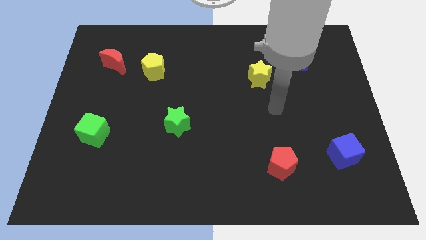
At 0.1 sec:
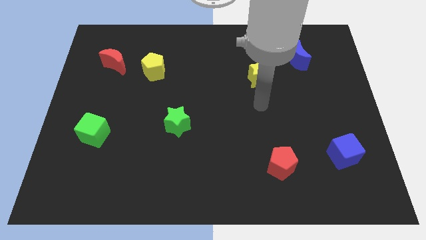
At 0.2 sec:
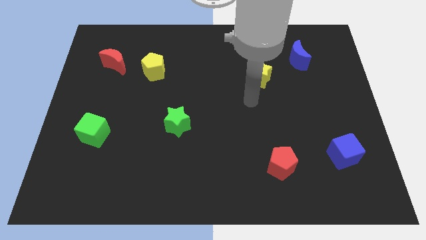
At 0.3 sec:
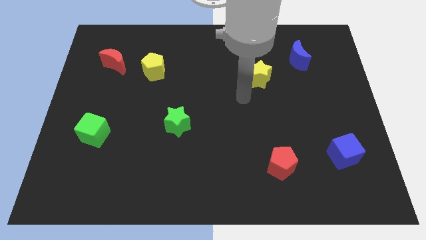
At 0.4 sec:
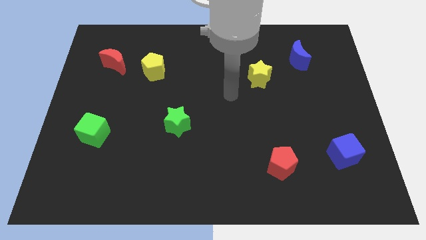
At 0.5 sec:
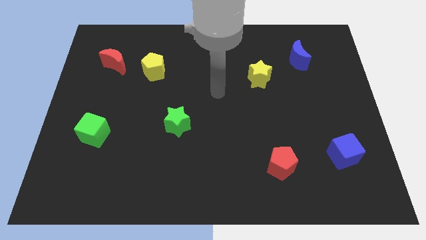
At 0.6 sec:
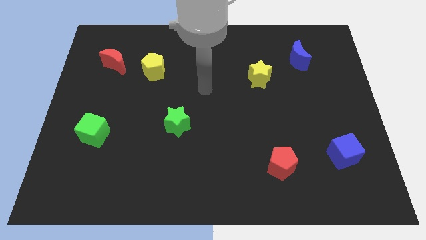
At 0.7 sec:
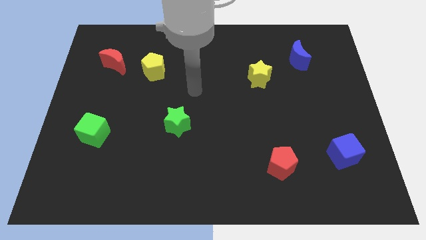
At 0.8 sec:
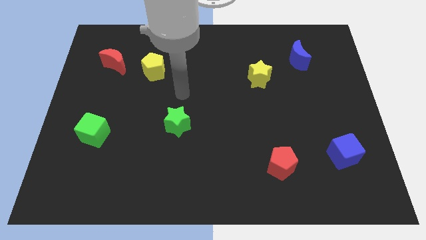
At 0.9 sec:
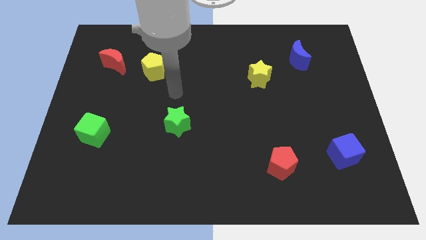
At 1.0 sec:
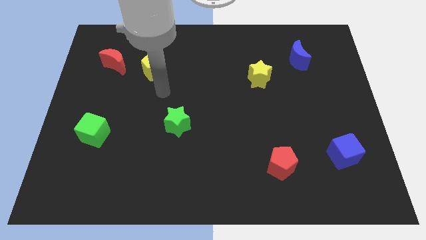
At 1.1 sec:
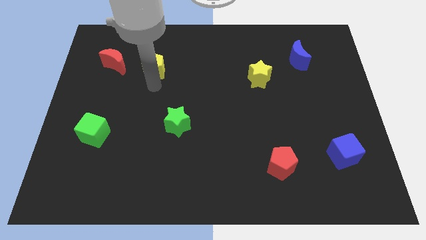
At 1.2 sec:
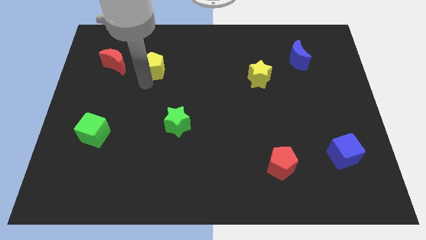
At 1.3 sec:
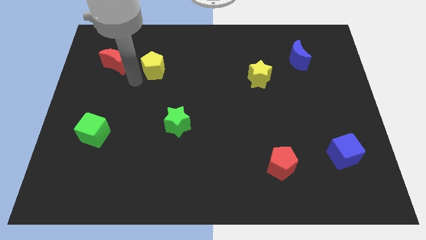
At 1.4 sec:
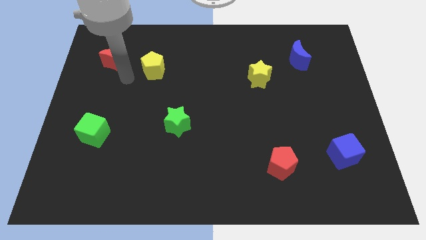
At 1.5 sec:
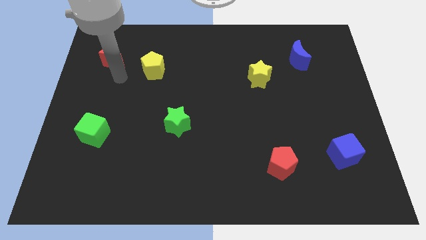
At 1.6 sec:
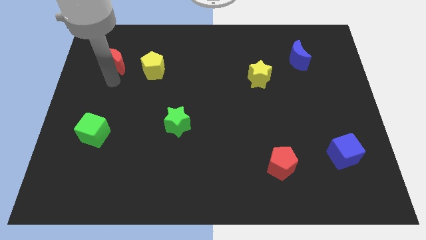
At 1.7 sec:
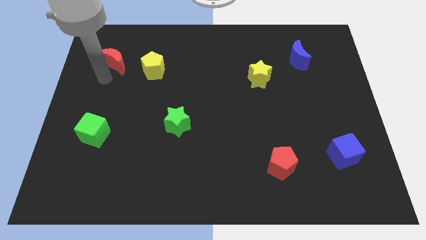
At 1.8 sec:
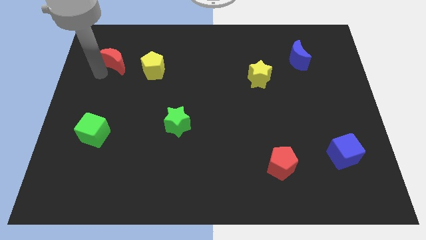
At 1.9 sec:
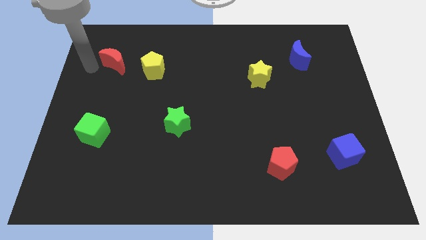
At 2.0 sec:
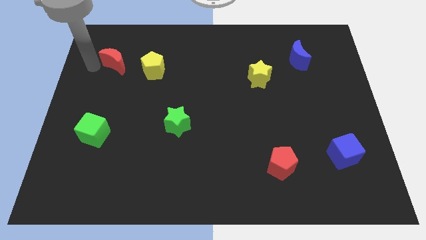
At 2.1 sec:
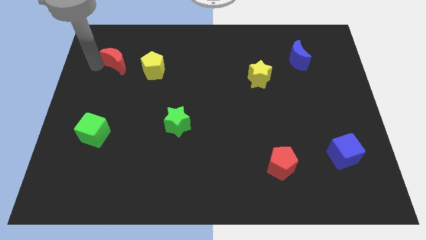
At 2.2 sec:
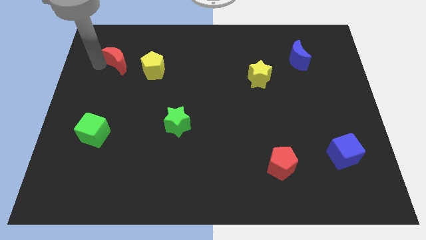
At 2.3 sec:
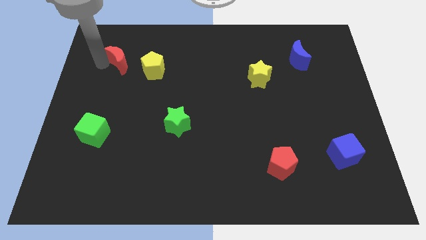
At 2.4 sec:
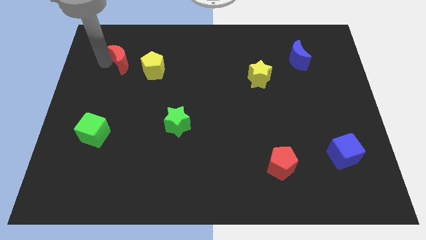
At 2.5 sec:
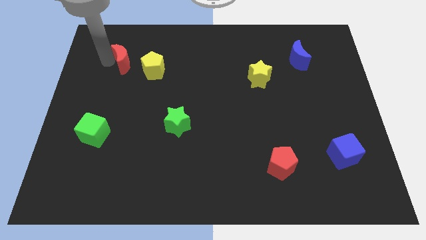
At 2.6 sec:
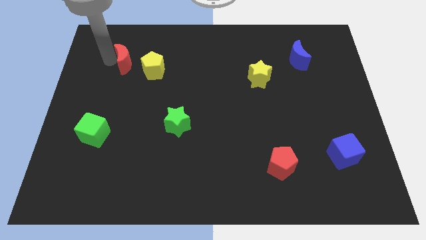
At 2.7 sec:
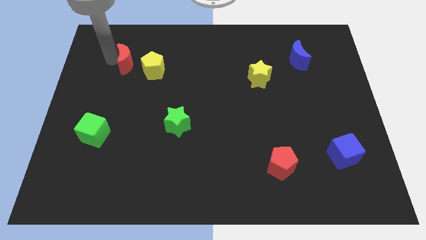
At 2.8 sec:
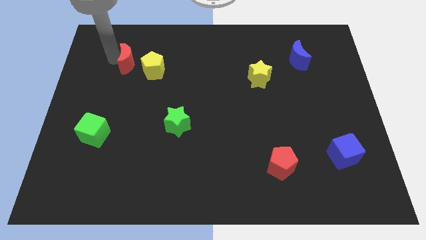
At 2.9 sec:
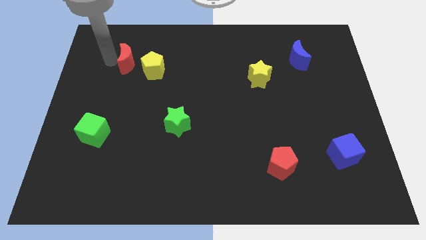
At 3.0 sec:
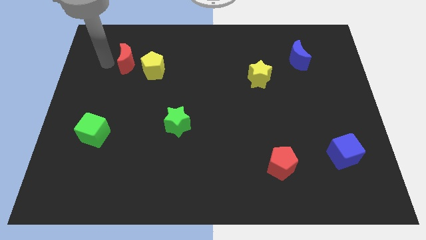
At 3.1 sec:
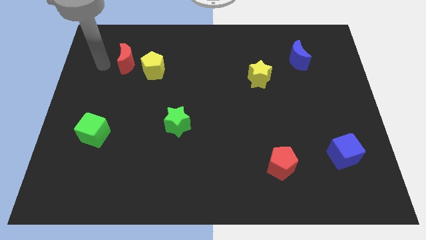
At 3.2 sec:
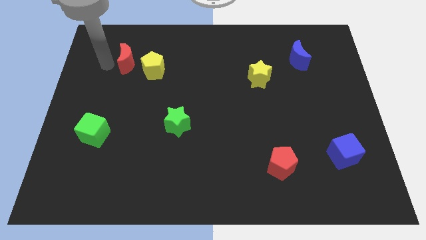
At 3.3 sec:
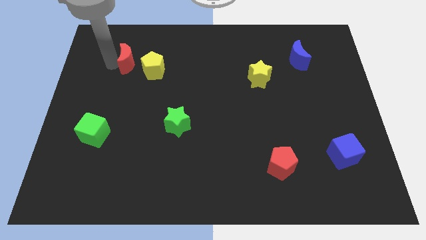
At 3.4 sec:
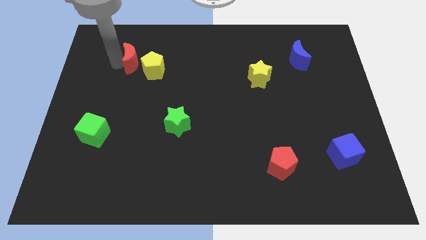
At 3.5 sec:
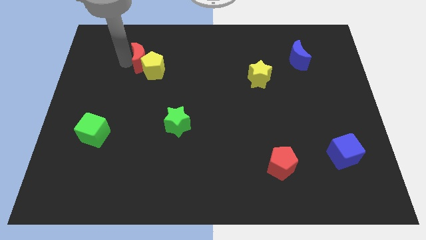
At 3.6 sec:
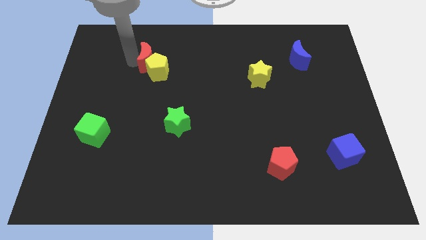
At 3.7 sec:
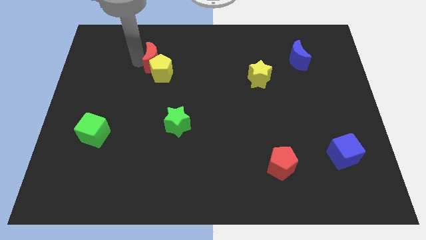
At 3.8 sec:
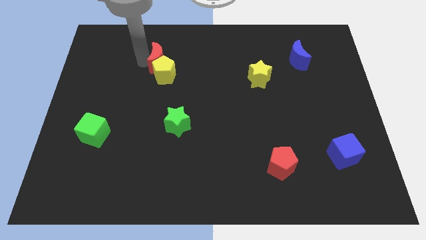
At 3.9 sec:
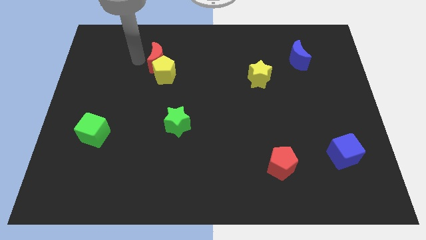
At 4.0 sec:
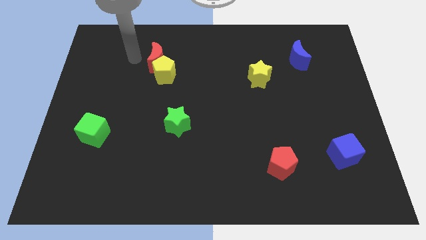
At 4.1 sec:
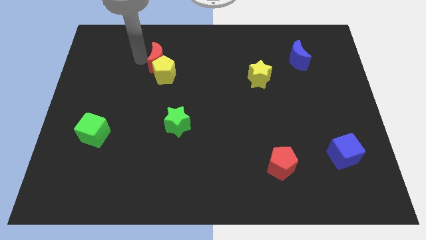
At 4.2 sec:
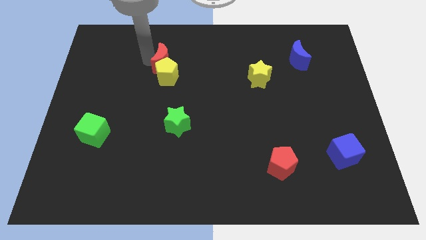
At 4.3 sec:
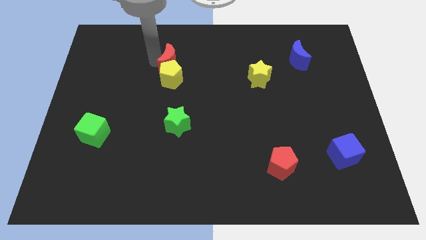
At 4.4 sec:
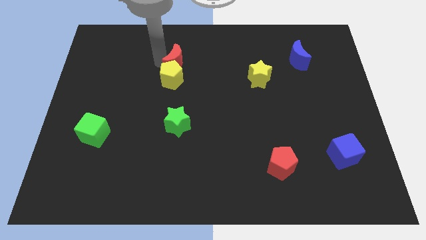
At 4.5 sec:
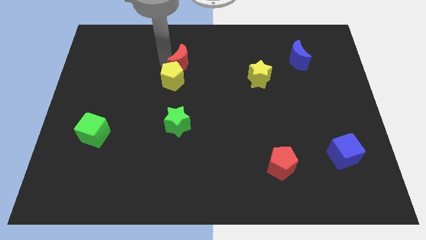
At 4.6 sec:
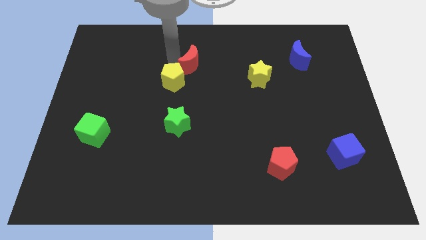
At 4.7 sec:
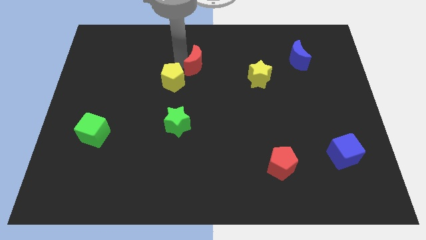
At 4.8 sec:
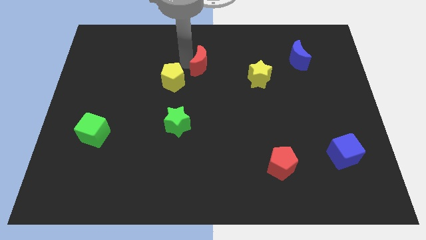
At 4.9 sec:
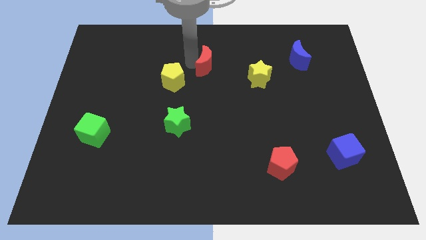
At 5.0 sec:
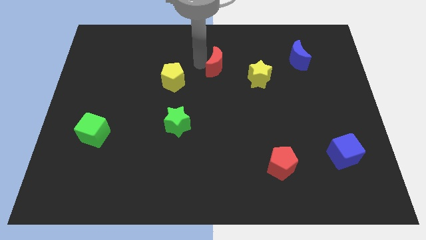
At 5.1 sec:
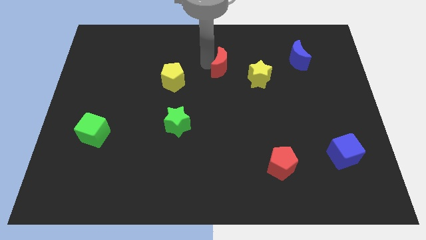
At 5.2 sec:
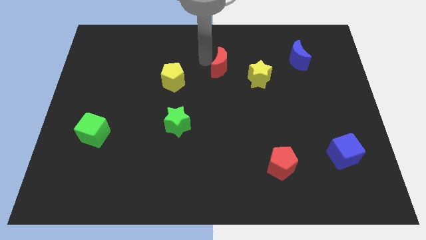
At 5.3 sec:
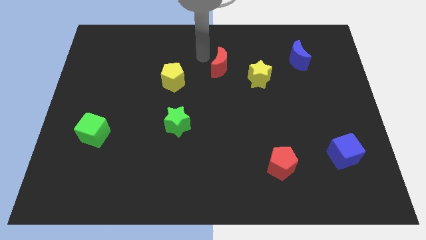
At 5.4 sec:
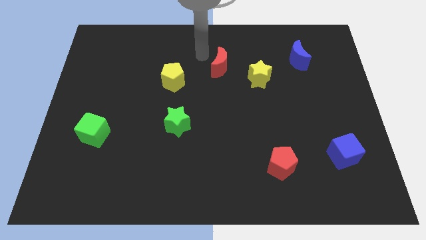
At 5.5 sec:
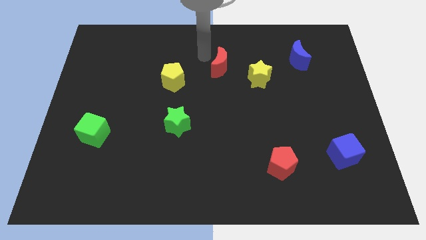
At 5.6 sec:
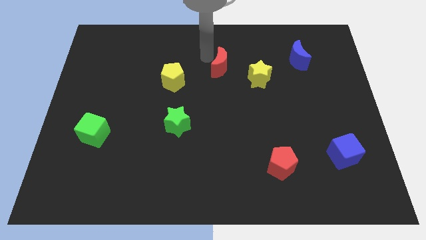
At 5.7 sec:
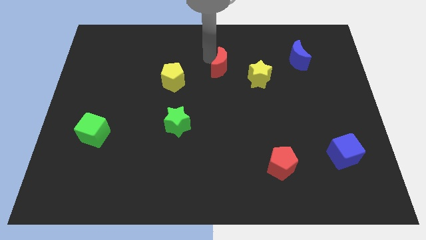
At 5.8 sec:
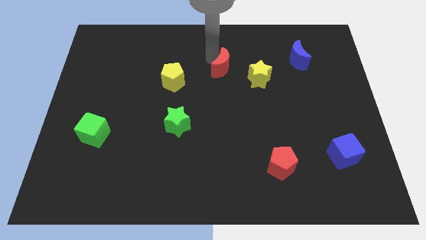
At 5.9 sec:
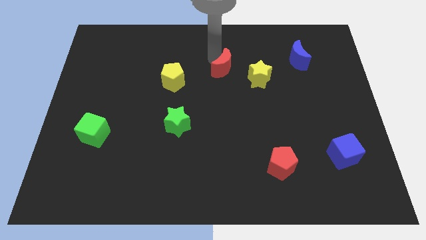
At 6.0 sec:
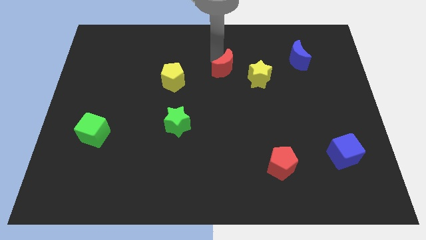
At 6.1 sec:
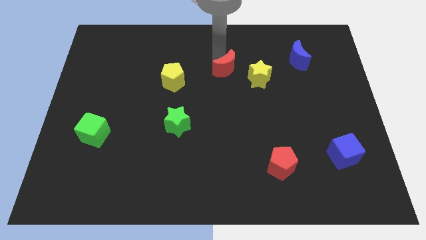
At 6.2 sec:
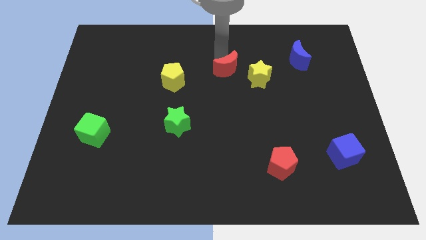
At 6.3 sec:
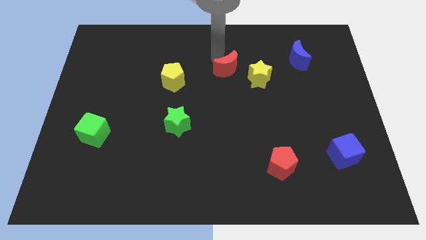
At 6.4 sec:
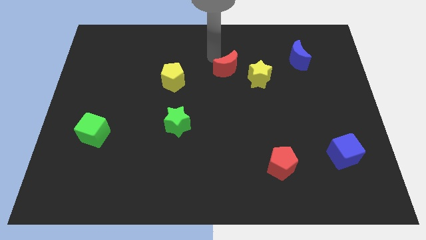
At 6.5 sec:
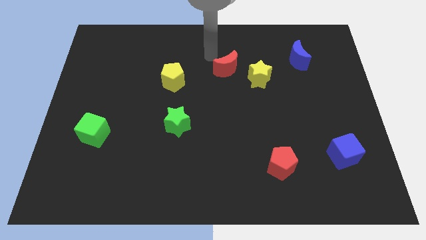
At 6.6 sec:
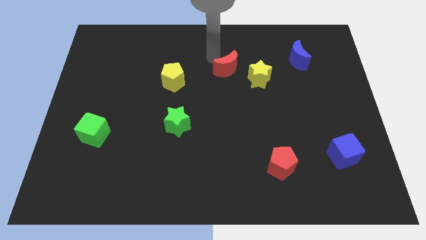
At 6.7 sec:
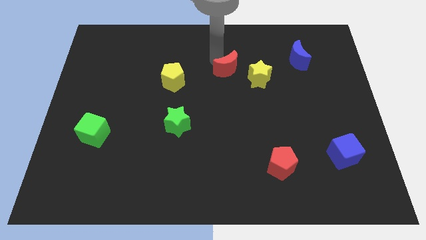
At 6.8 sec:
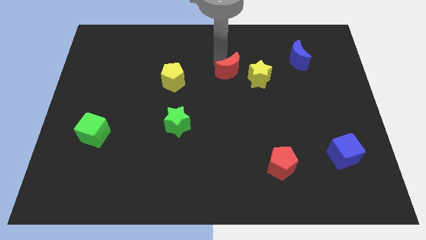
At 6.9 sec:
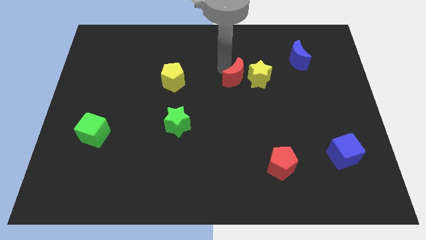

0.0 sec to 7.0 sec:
put the red moon towards the yellow star

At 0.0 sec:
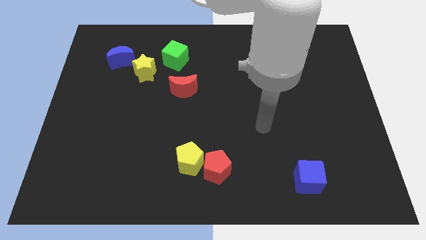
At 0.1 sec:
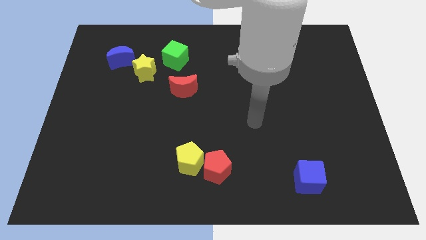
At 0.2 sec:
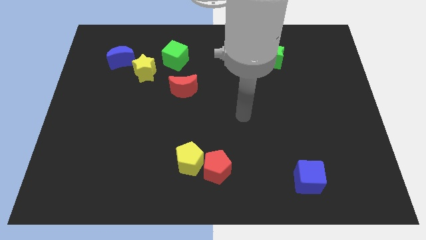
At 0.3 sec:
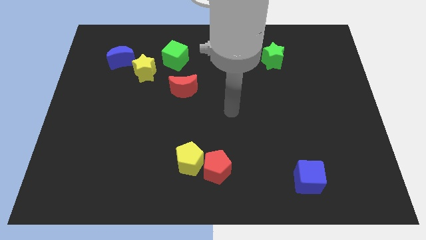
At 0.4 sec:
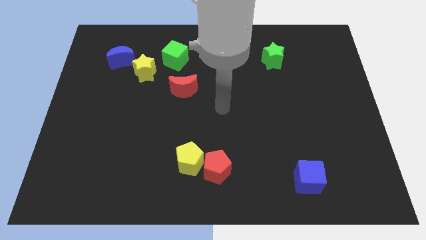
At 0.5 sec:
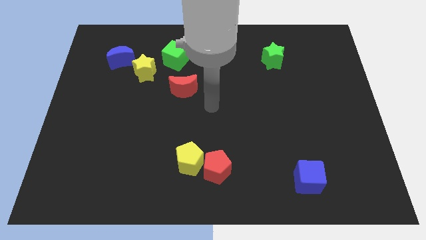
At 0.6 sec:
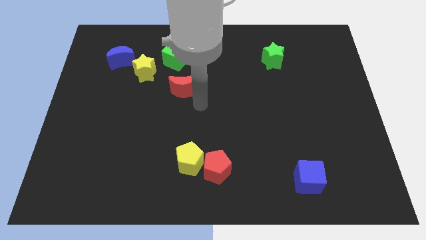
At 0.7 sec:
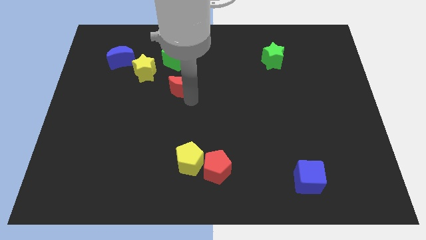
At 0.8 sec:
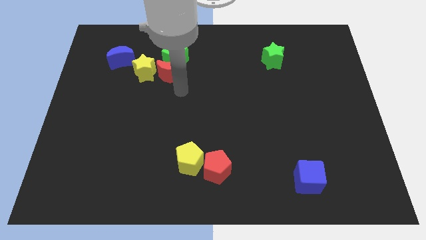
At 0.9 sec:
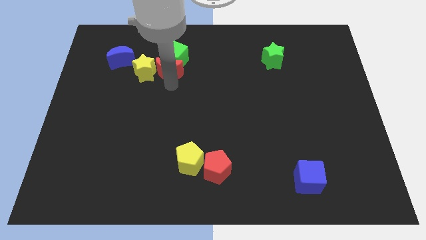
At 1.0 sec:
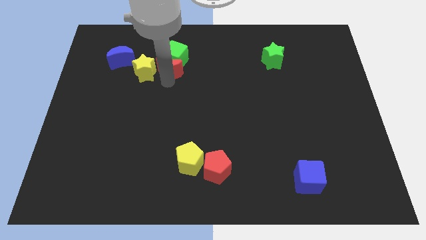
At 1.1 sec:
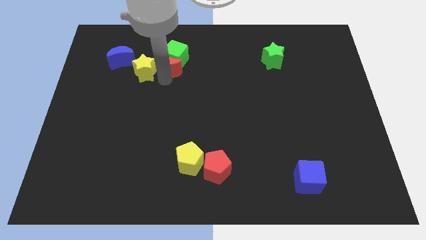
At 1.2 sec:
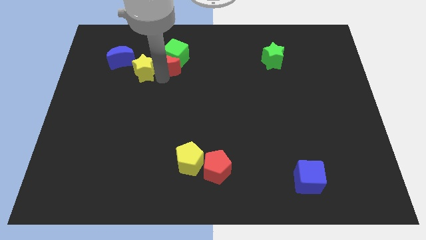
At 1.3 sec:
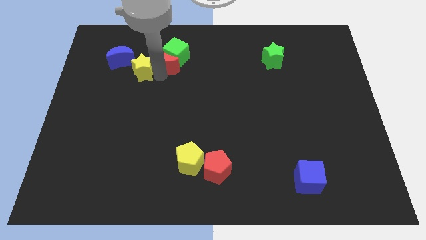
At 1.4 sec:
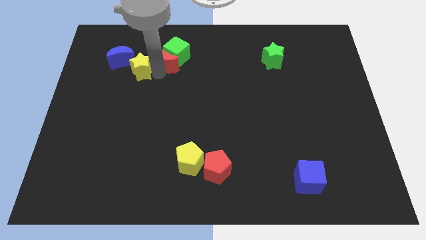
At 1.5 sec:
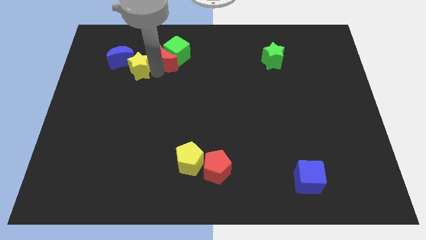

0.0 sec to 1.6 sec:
put the yellow star to the blue moon
